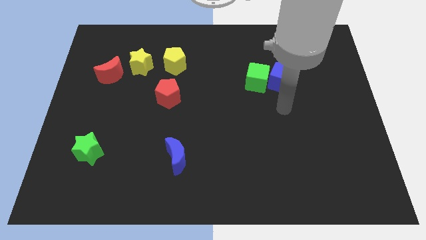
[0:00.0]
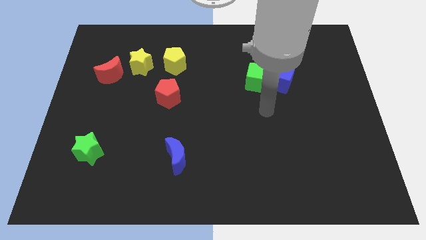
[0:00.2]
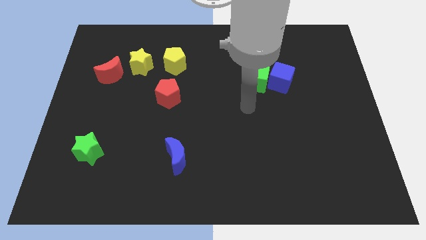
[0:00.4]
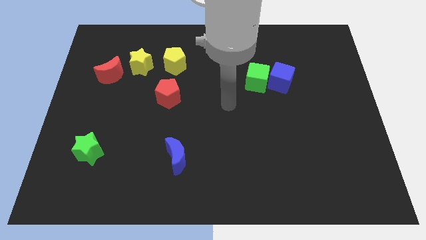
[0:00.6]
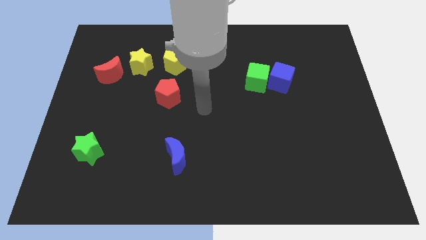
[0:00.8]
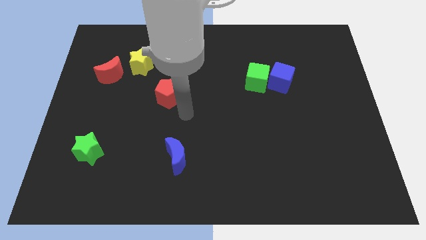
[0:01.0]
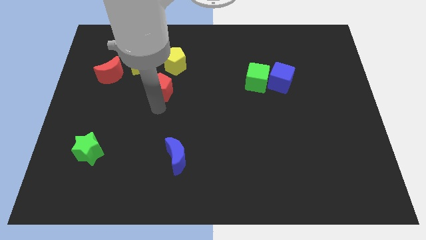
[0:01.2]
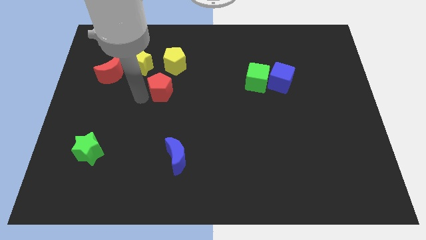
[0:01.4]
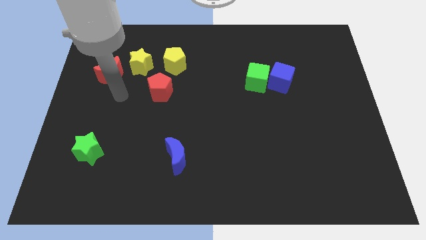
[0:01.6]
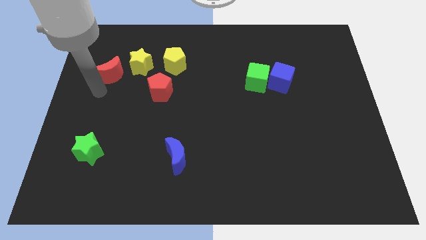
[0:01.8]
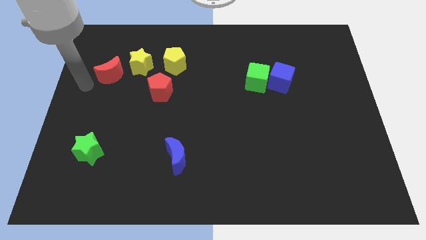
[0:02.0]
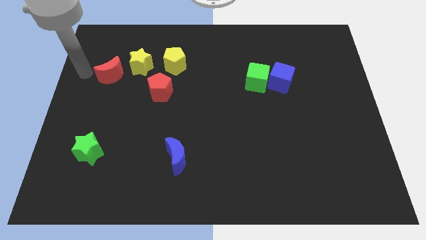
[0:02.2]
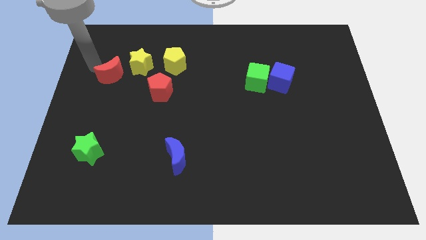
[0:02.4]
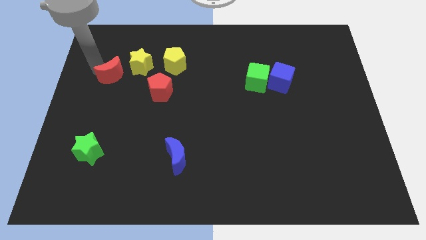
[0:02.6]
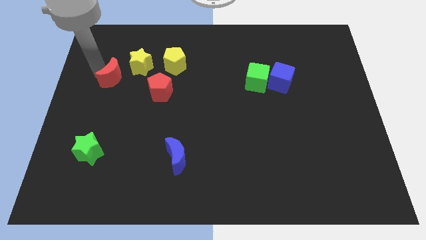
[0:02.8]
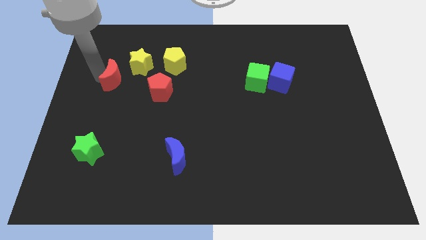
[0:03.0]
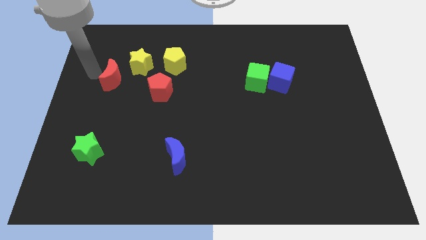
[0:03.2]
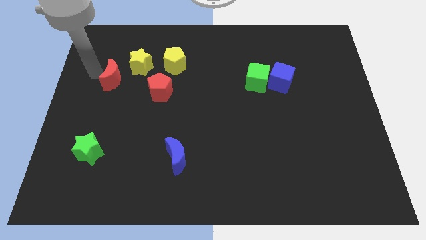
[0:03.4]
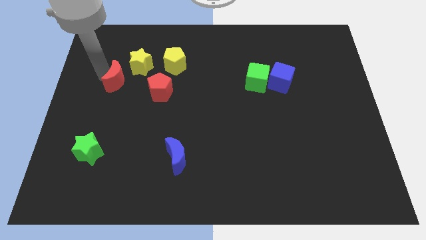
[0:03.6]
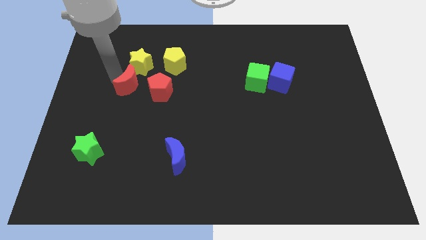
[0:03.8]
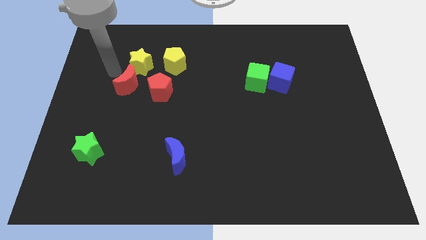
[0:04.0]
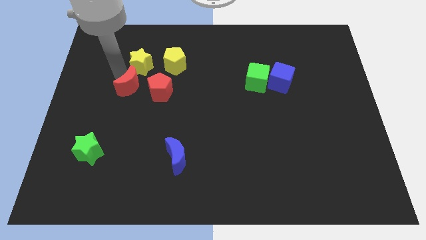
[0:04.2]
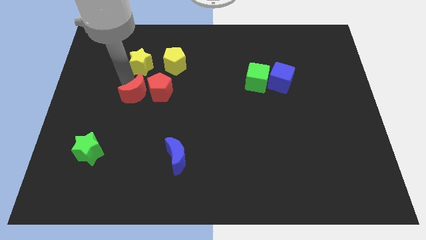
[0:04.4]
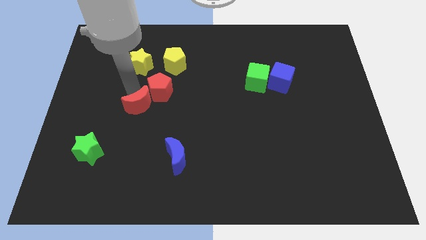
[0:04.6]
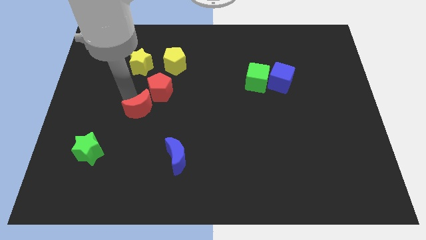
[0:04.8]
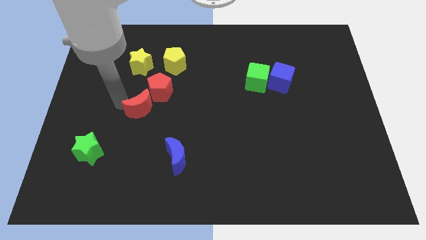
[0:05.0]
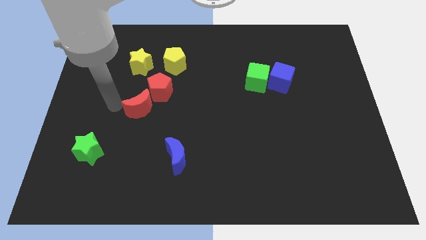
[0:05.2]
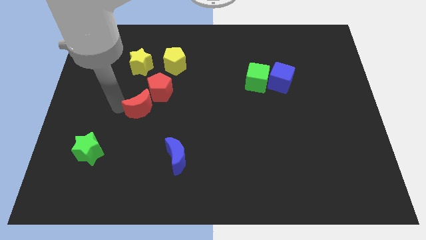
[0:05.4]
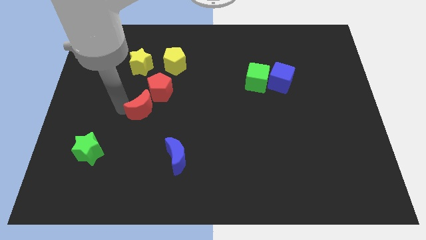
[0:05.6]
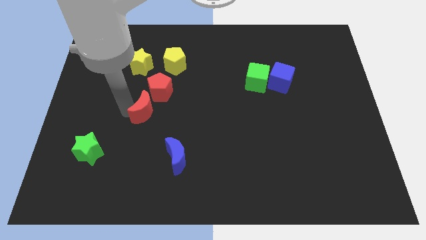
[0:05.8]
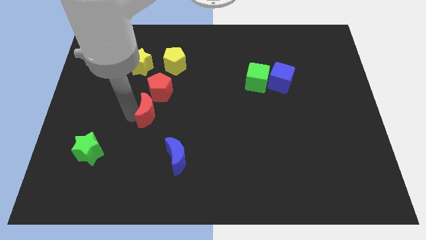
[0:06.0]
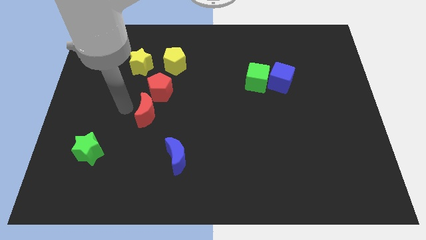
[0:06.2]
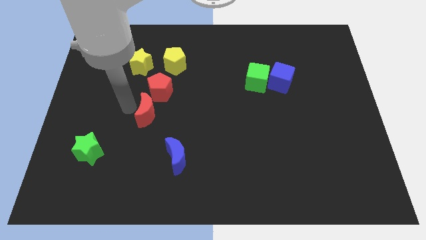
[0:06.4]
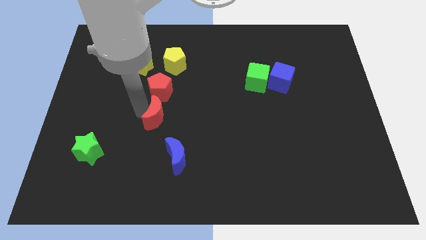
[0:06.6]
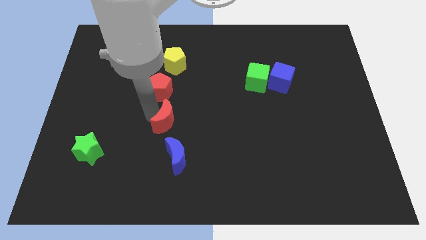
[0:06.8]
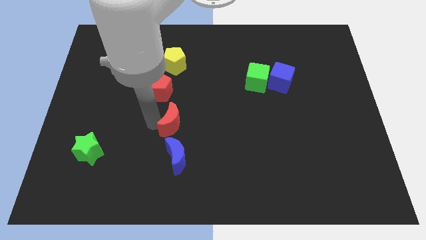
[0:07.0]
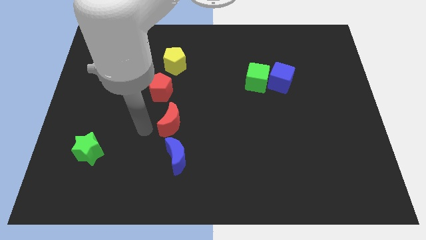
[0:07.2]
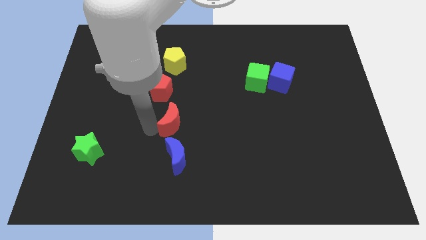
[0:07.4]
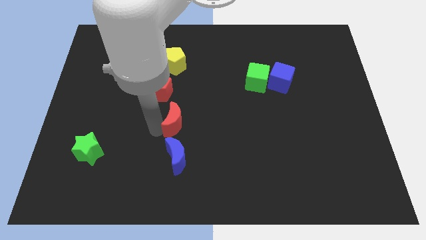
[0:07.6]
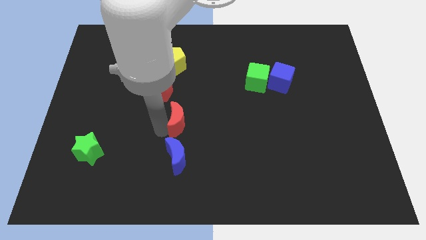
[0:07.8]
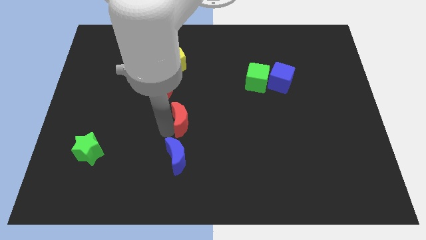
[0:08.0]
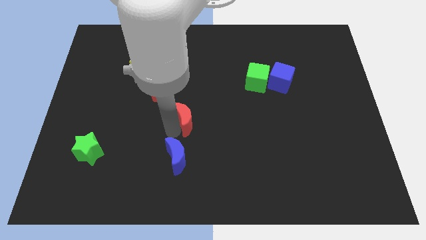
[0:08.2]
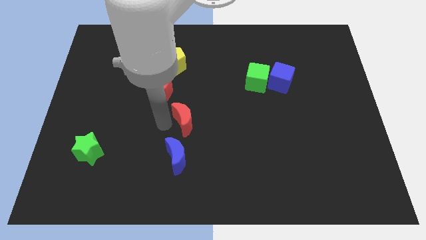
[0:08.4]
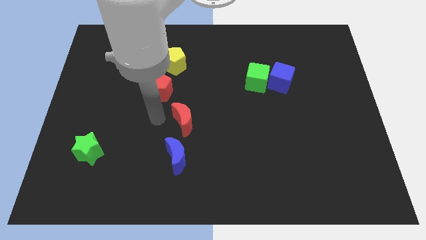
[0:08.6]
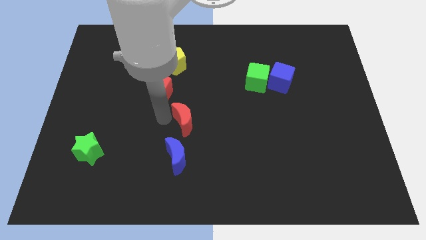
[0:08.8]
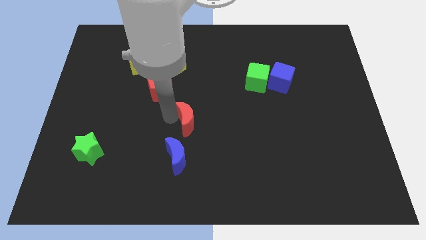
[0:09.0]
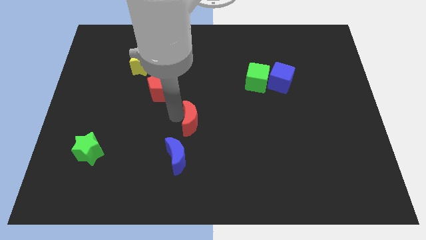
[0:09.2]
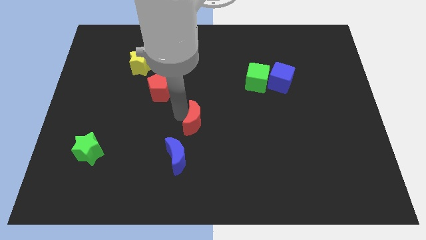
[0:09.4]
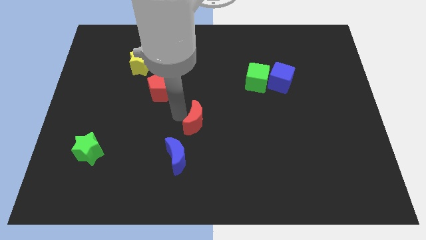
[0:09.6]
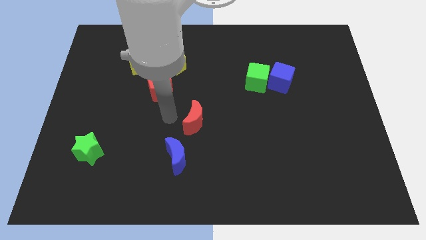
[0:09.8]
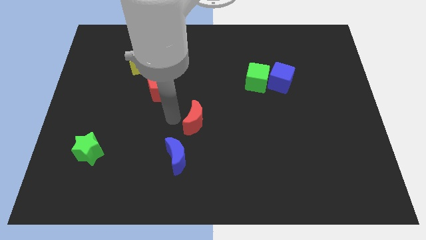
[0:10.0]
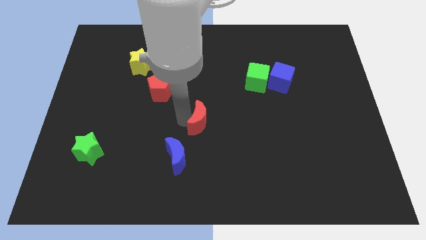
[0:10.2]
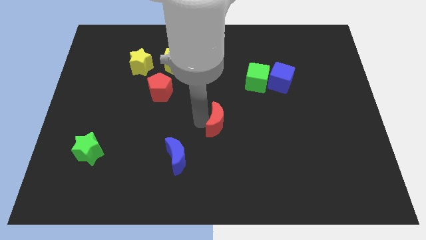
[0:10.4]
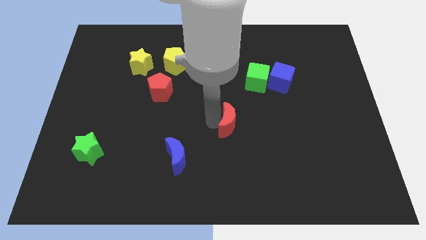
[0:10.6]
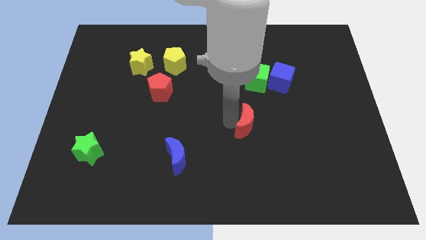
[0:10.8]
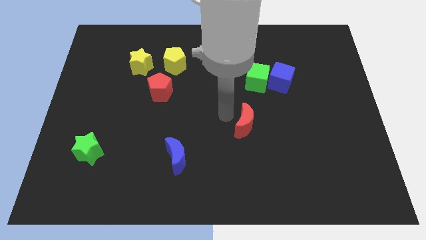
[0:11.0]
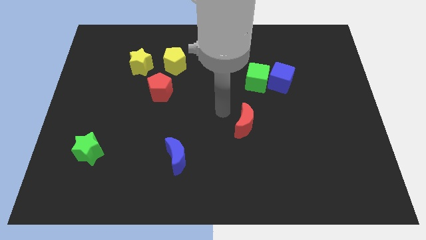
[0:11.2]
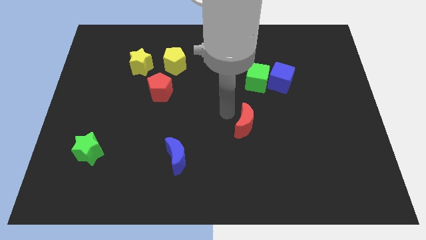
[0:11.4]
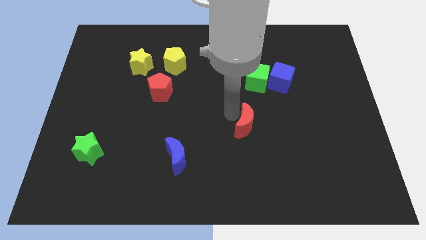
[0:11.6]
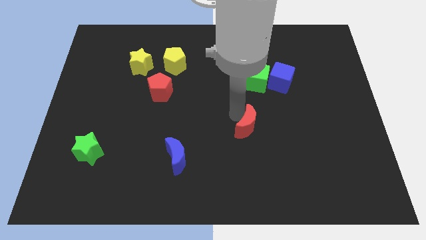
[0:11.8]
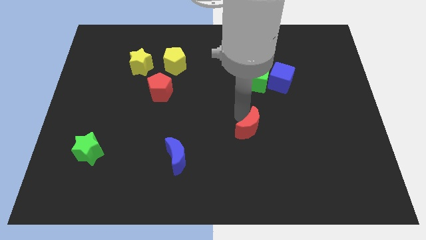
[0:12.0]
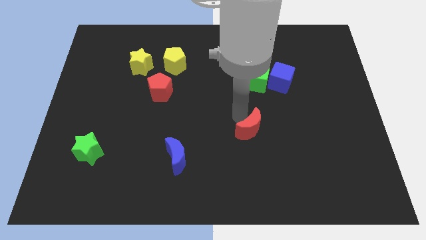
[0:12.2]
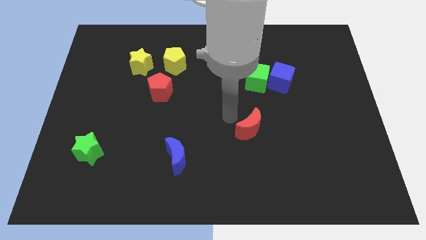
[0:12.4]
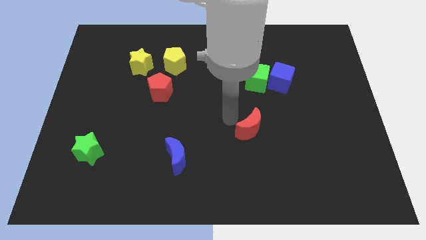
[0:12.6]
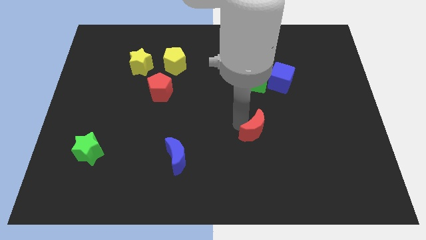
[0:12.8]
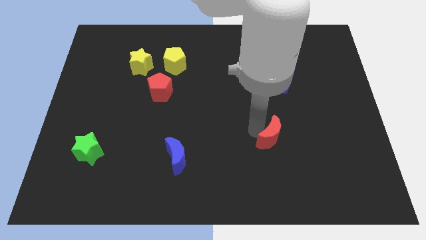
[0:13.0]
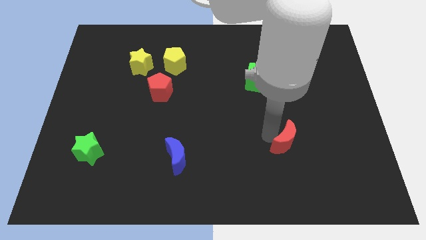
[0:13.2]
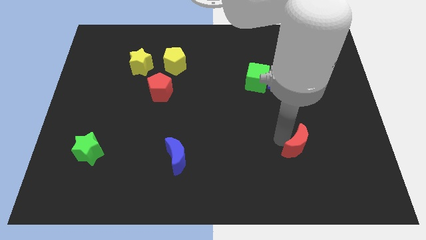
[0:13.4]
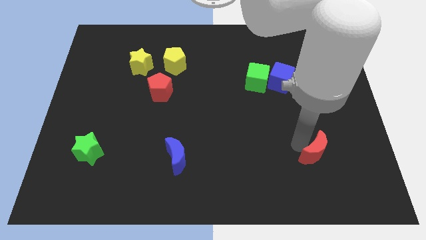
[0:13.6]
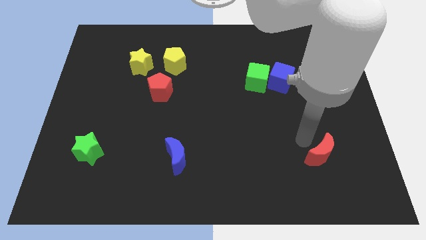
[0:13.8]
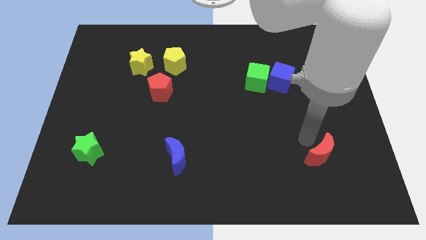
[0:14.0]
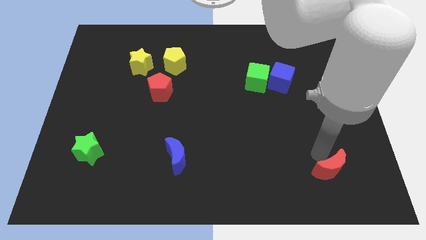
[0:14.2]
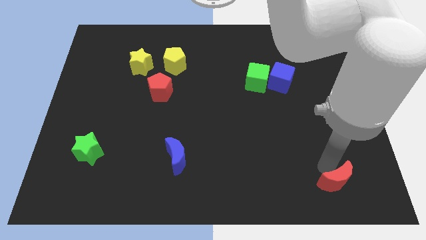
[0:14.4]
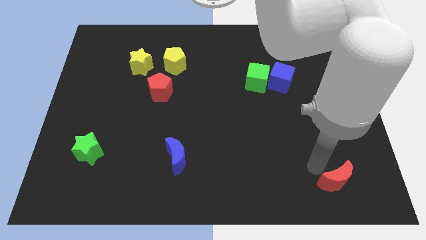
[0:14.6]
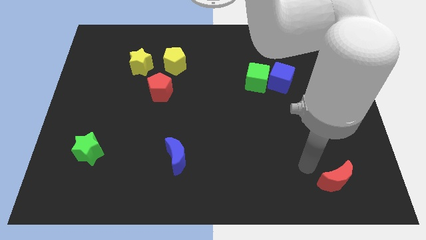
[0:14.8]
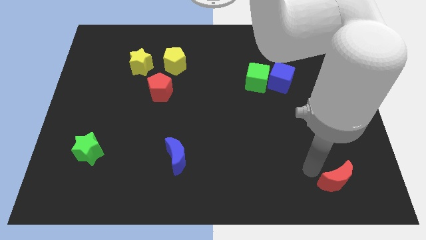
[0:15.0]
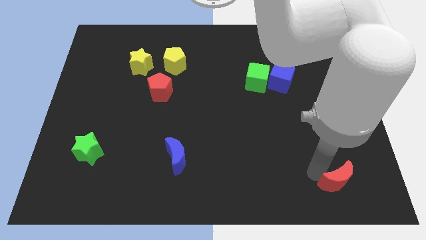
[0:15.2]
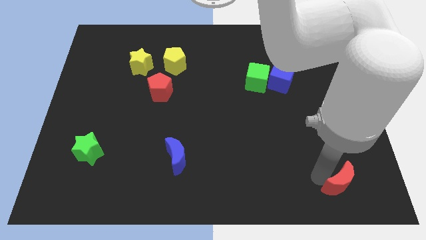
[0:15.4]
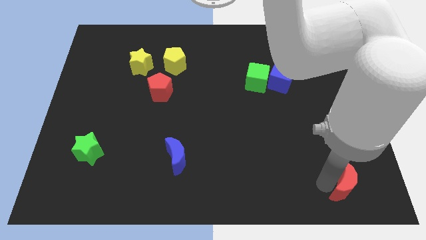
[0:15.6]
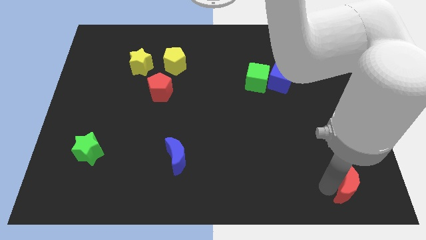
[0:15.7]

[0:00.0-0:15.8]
slide the red moon to the lower right corner
